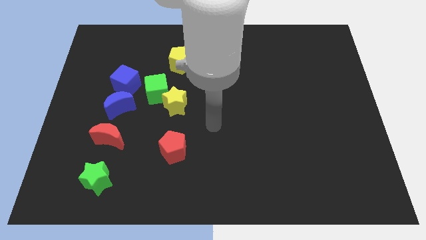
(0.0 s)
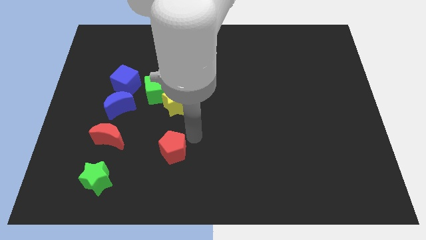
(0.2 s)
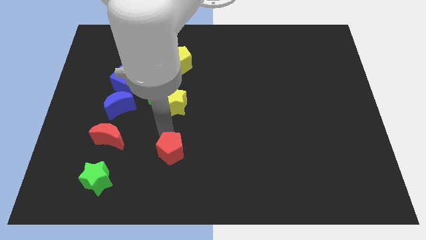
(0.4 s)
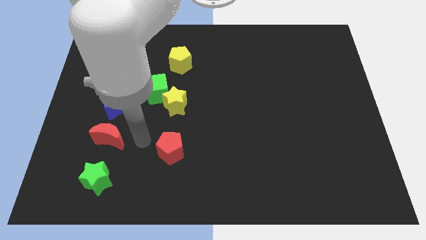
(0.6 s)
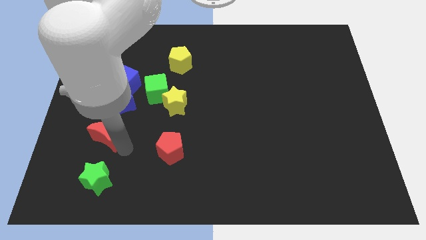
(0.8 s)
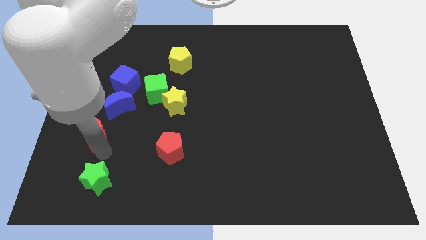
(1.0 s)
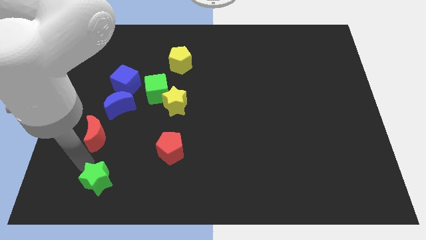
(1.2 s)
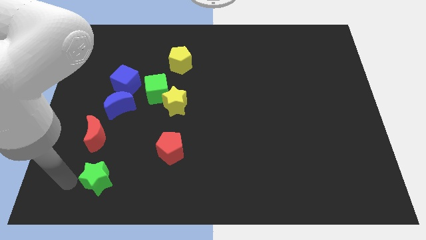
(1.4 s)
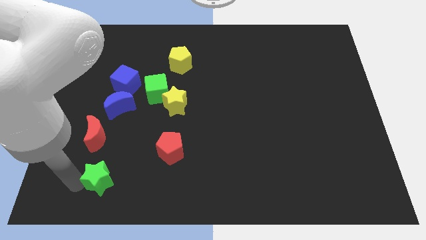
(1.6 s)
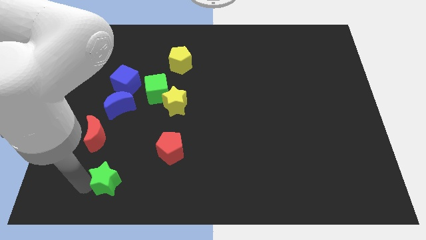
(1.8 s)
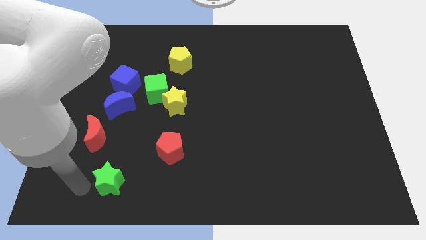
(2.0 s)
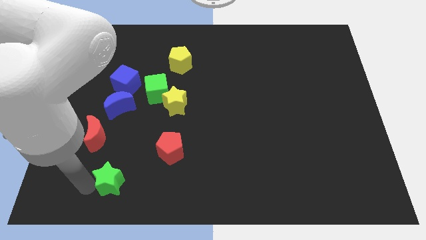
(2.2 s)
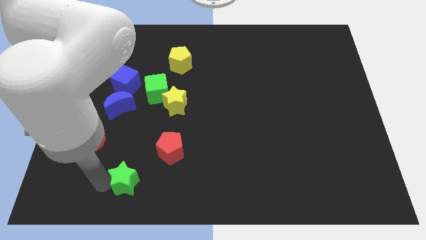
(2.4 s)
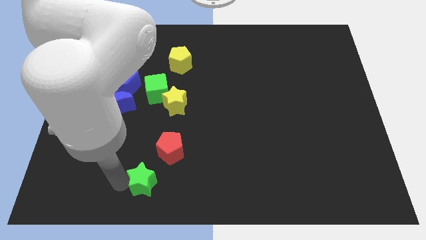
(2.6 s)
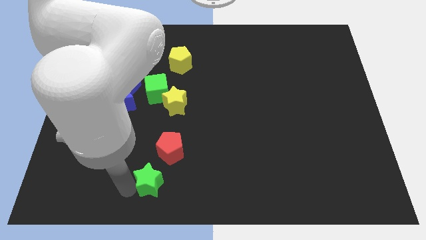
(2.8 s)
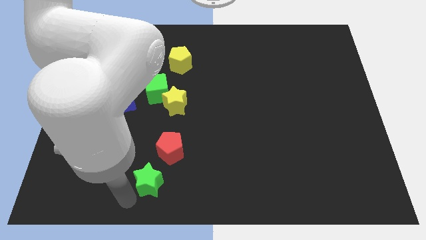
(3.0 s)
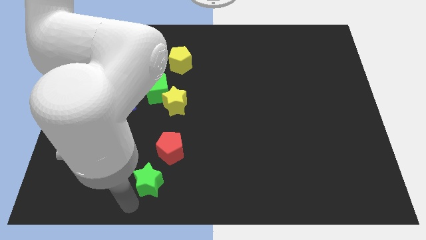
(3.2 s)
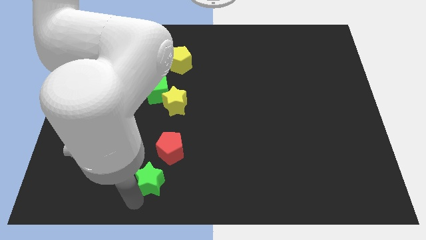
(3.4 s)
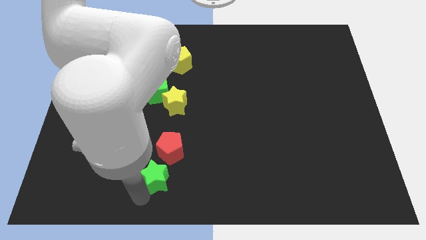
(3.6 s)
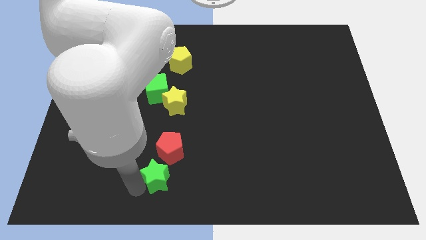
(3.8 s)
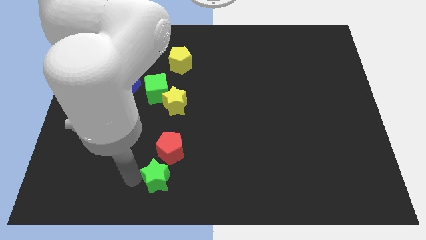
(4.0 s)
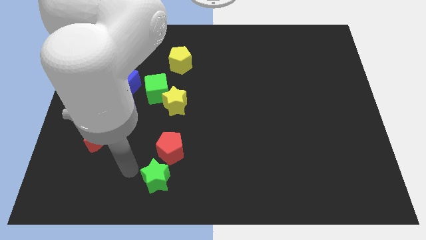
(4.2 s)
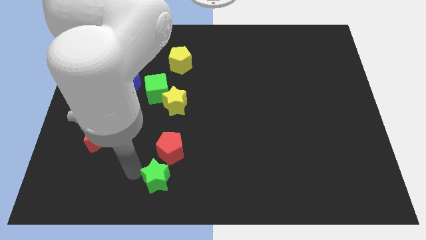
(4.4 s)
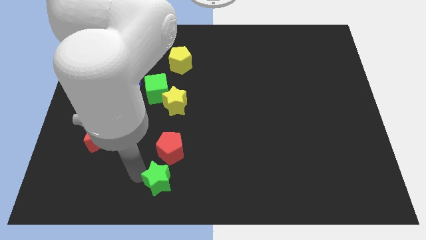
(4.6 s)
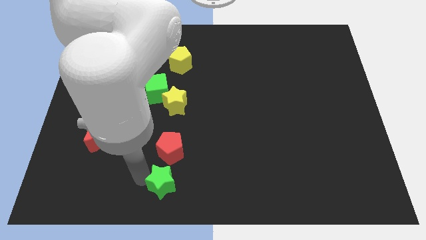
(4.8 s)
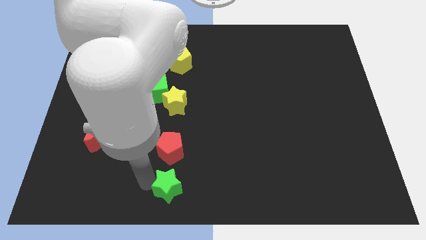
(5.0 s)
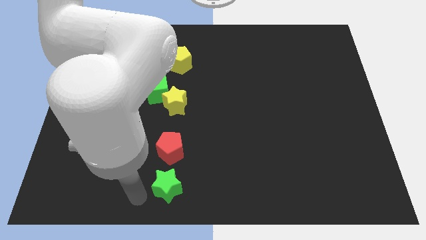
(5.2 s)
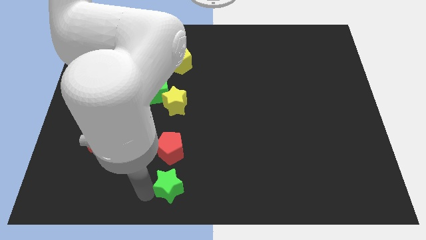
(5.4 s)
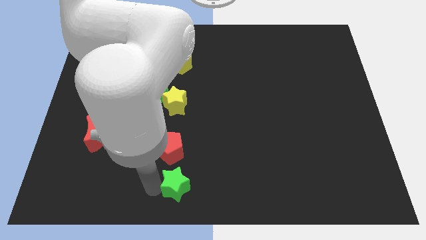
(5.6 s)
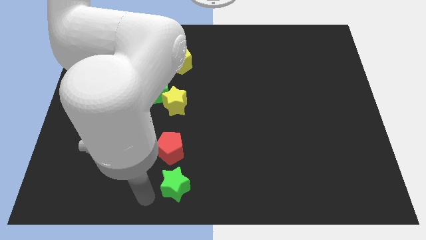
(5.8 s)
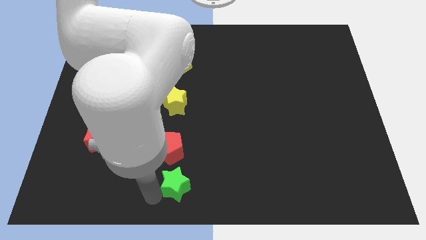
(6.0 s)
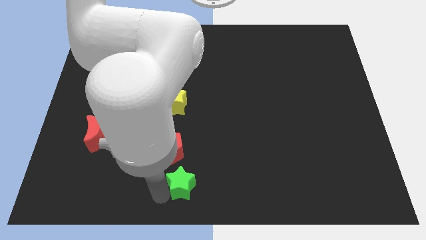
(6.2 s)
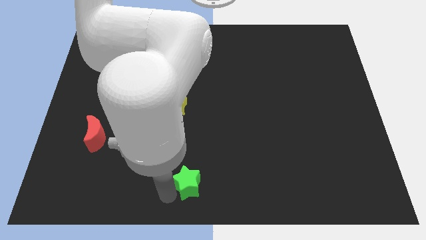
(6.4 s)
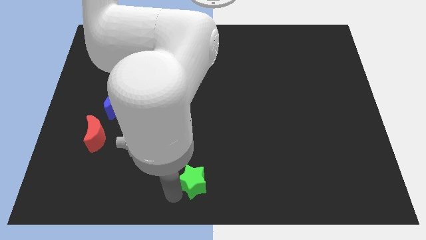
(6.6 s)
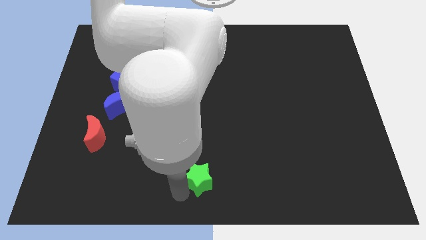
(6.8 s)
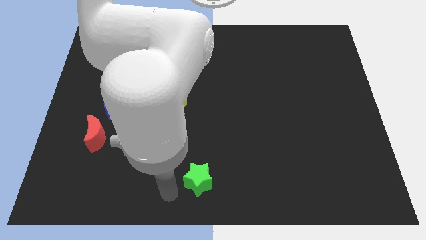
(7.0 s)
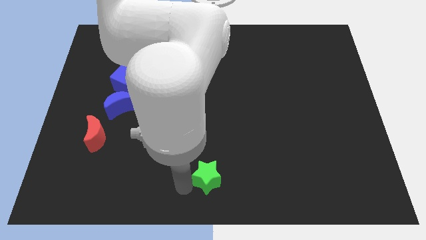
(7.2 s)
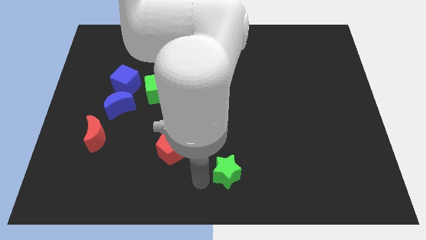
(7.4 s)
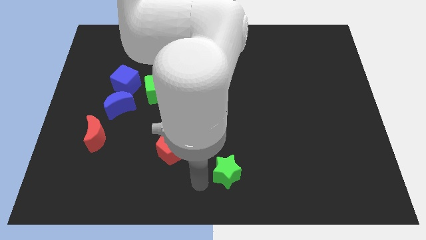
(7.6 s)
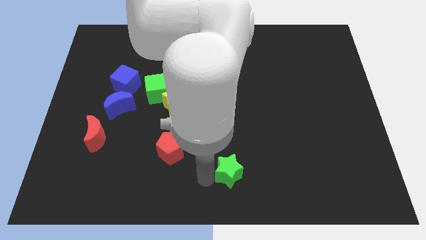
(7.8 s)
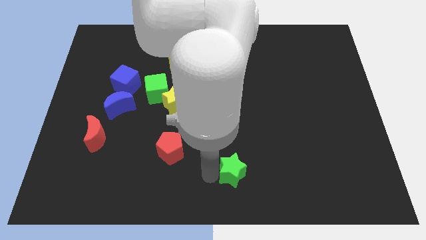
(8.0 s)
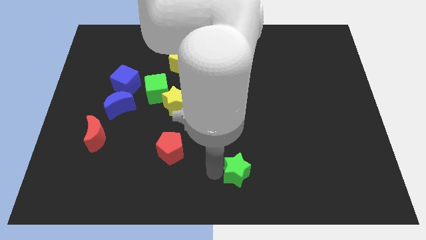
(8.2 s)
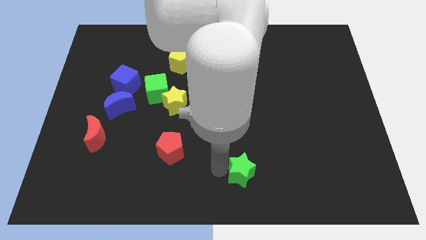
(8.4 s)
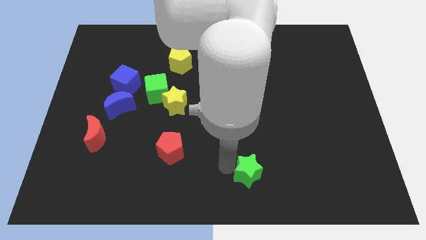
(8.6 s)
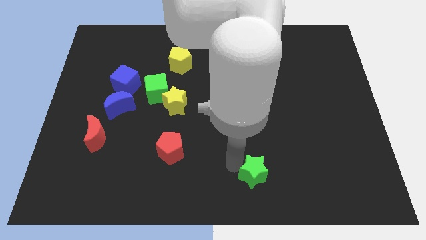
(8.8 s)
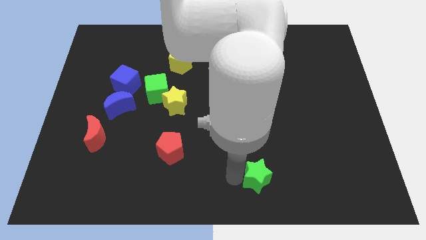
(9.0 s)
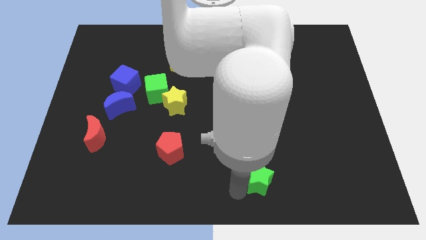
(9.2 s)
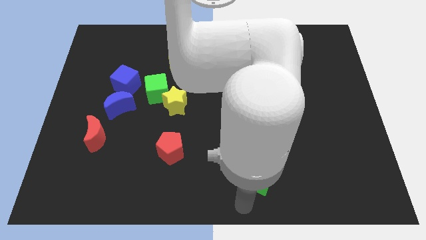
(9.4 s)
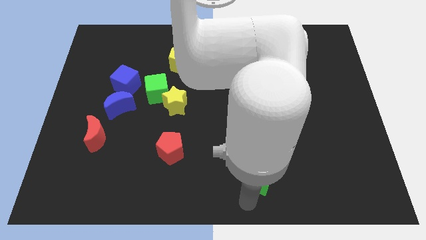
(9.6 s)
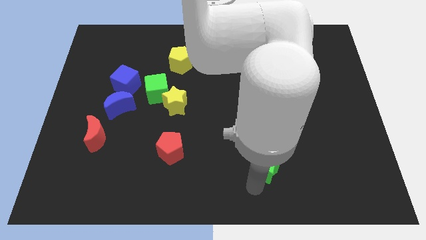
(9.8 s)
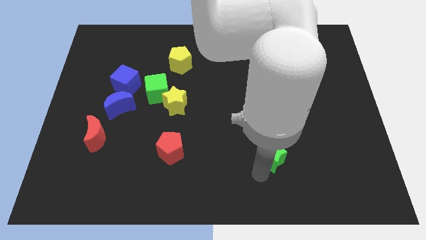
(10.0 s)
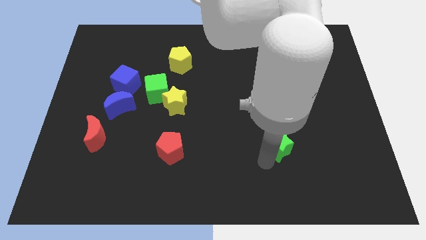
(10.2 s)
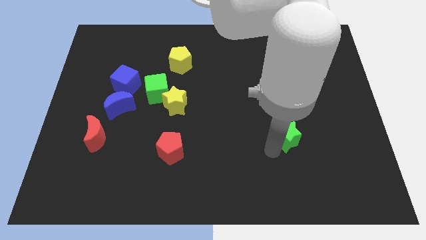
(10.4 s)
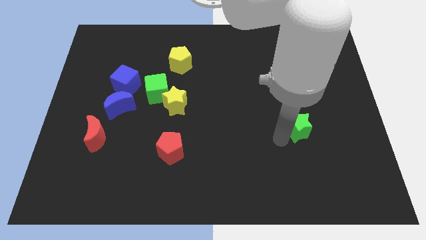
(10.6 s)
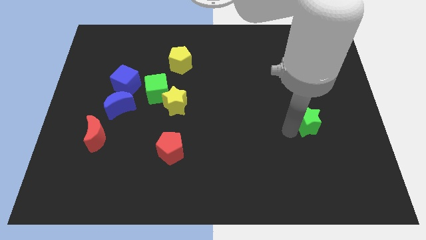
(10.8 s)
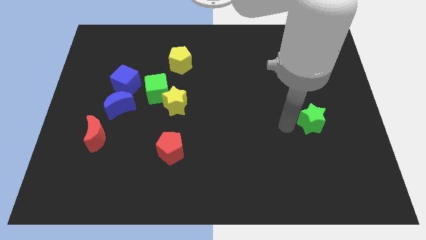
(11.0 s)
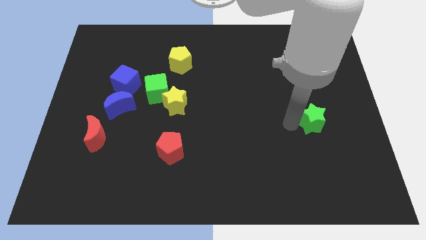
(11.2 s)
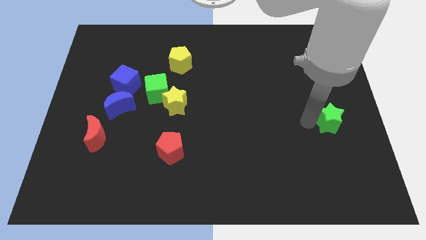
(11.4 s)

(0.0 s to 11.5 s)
slide the green star to the right side
